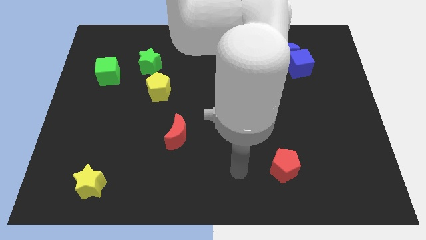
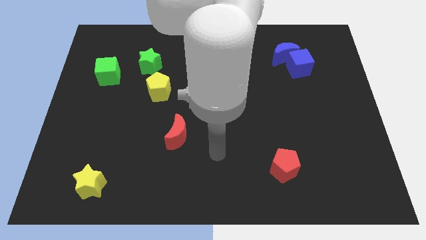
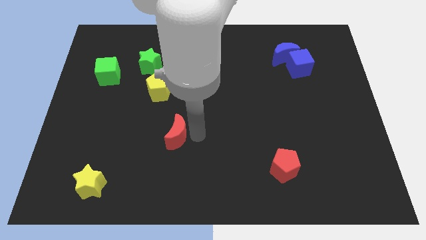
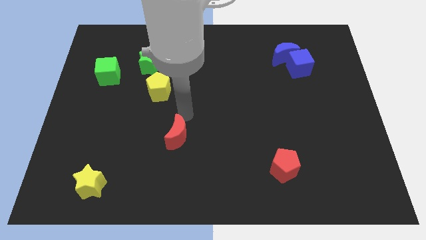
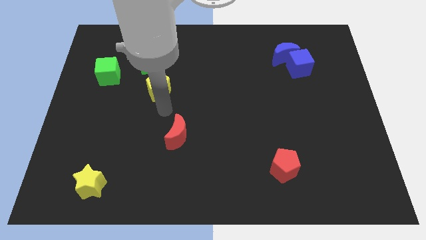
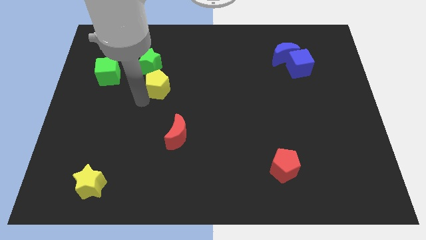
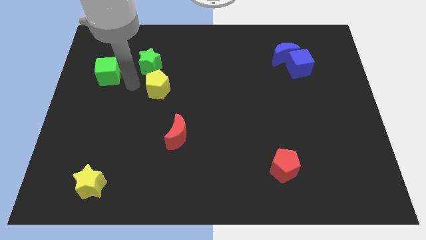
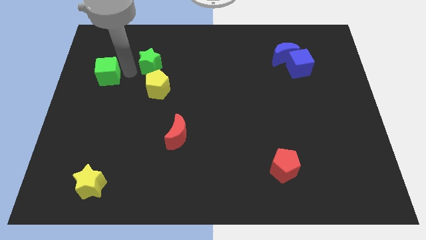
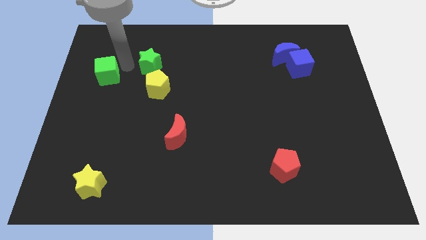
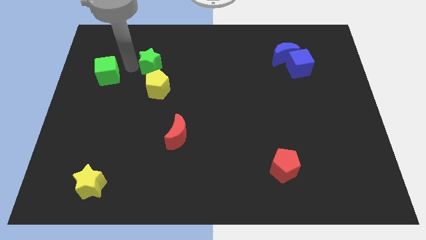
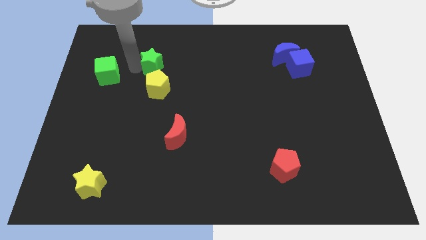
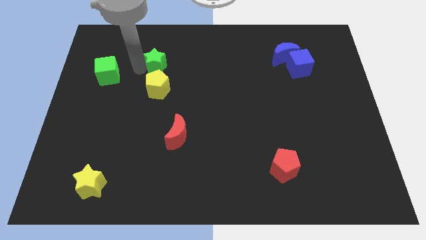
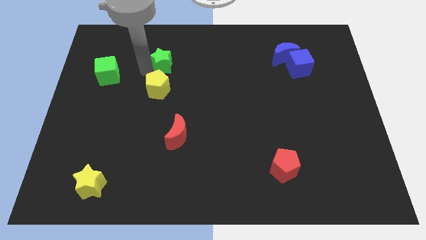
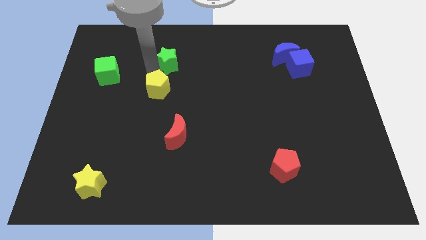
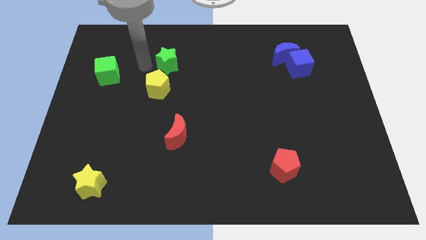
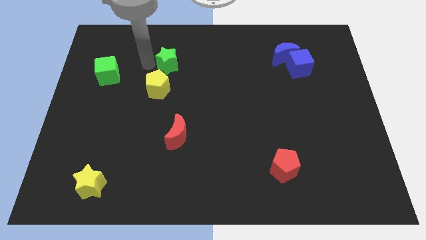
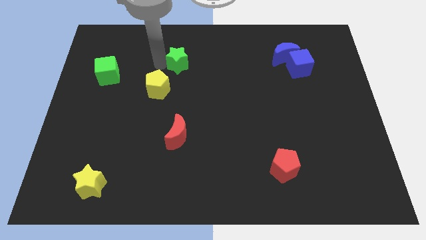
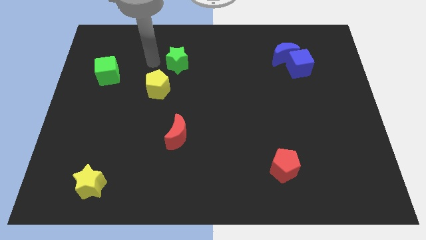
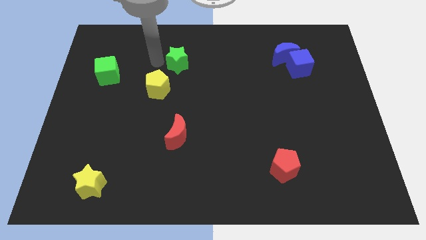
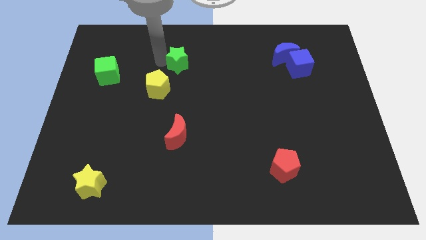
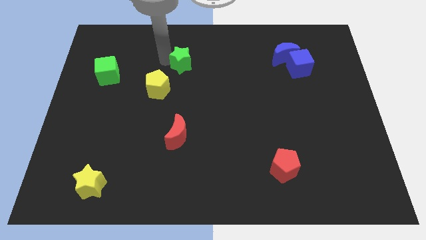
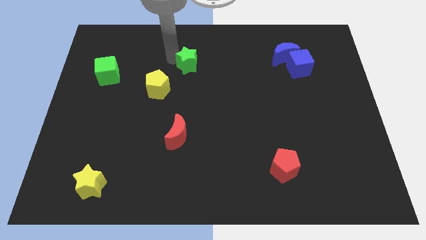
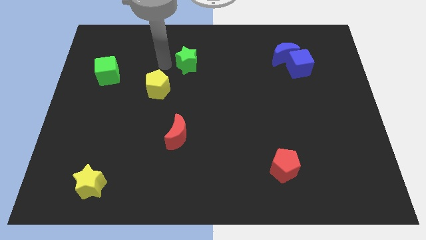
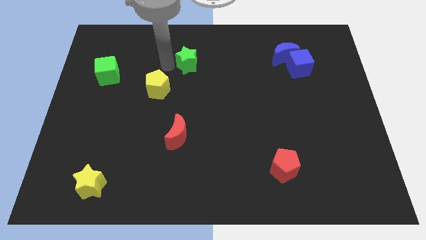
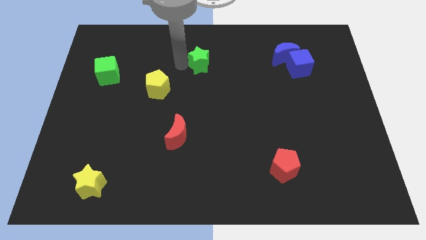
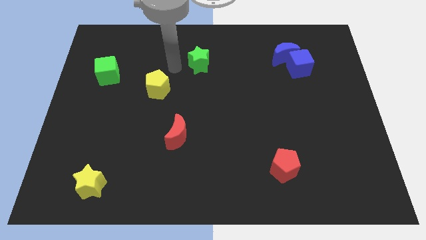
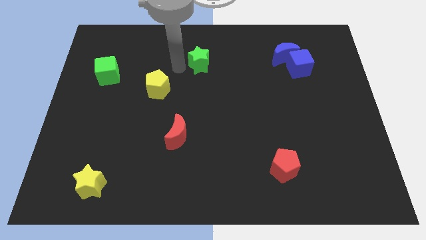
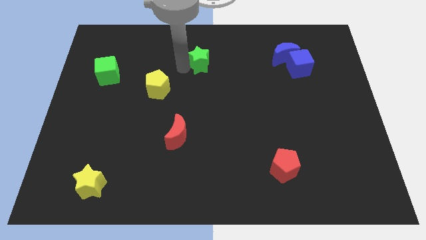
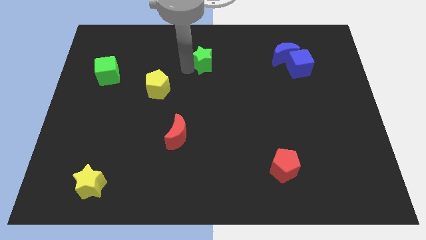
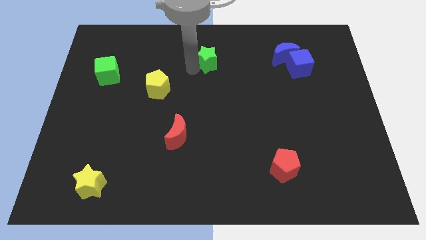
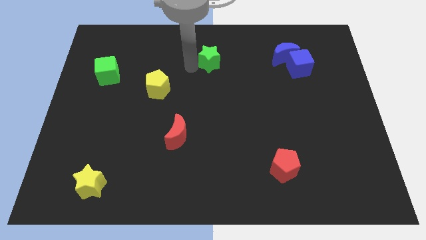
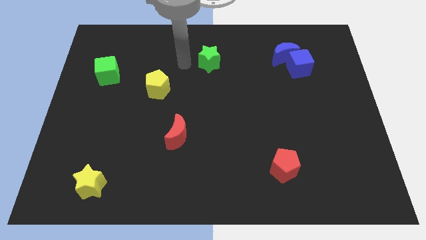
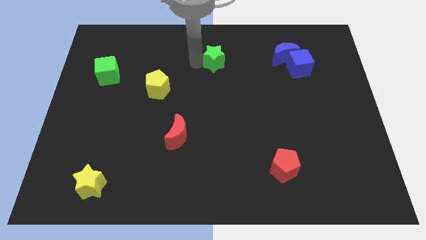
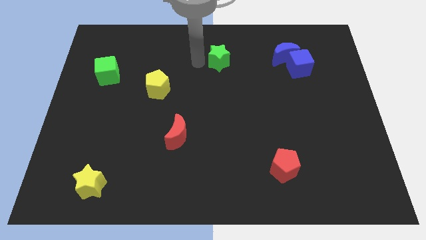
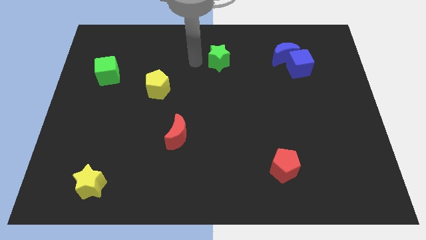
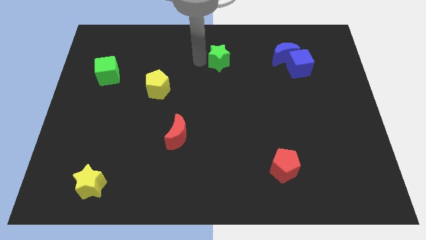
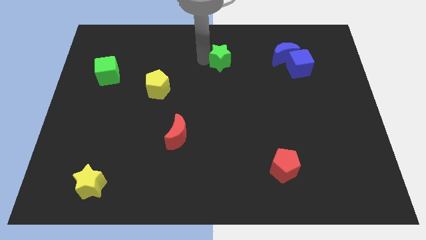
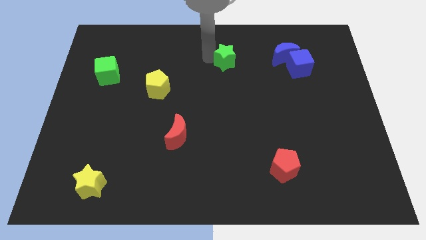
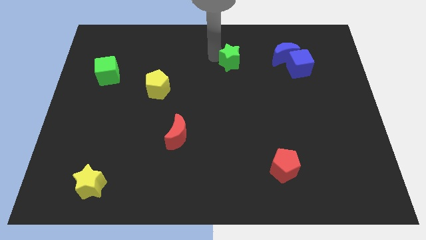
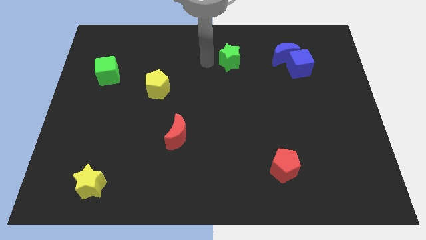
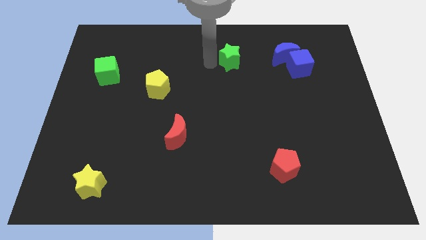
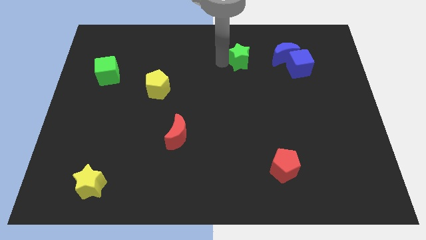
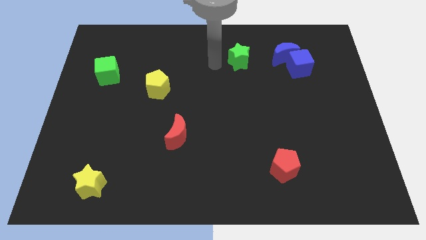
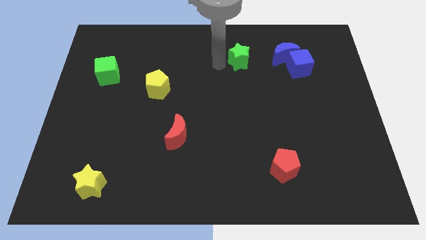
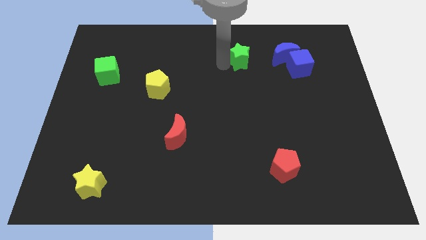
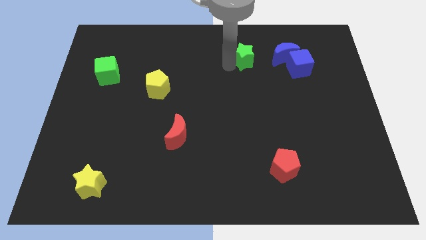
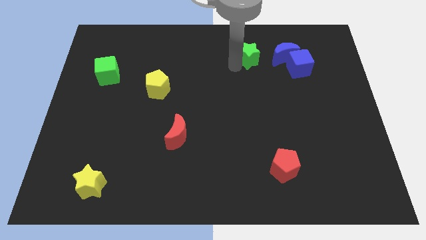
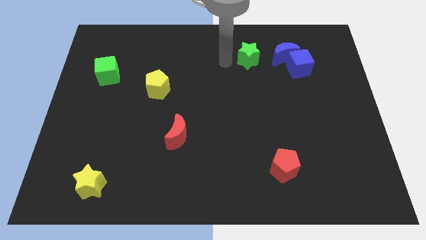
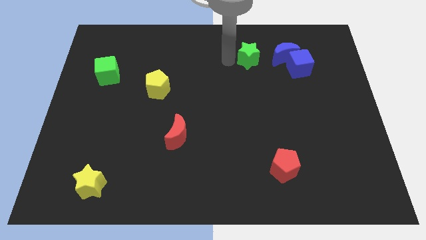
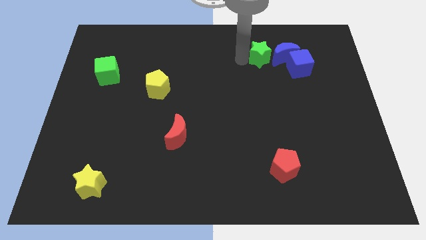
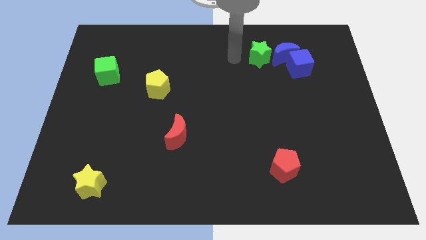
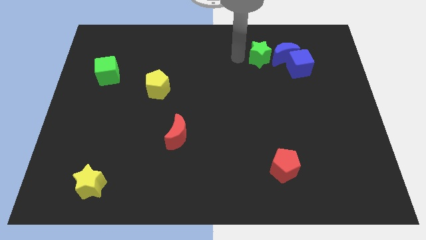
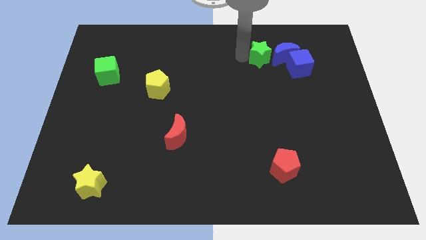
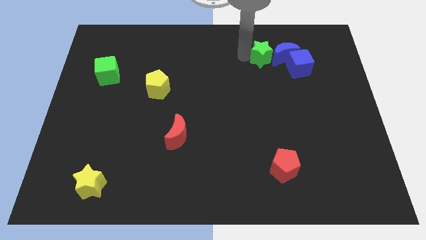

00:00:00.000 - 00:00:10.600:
put the green star to the blue moon
